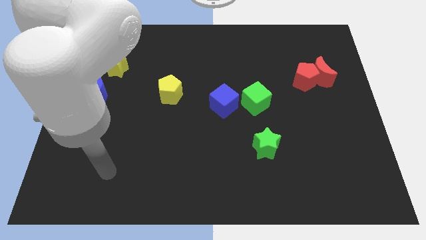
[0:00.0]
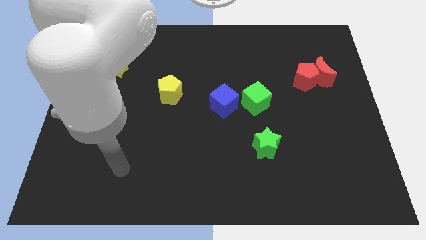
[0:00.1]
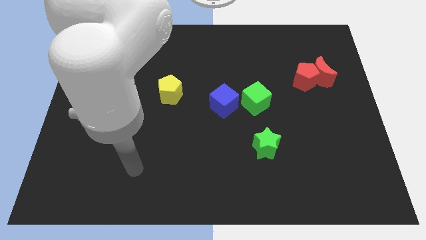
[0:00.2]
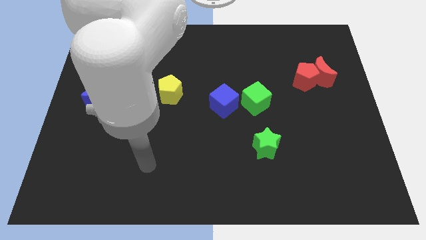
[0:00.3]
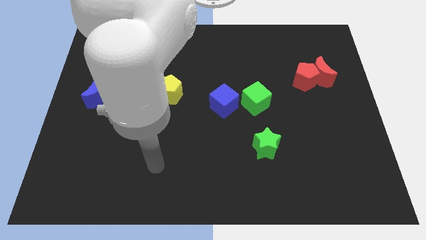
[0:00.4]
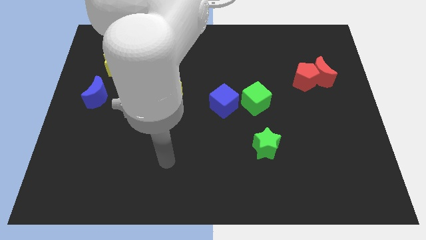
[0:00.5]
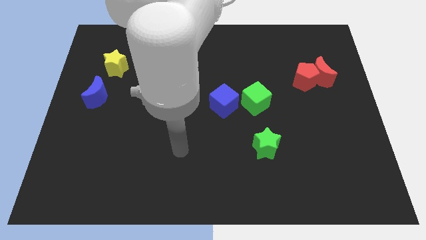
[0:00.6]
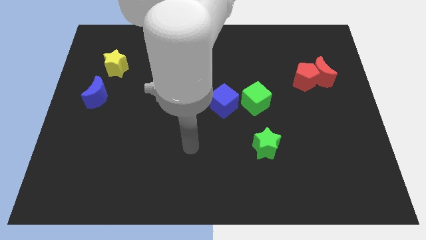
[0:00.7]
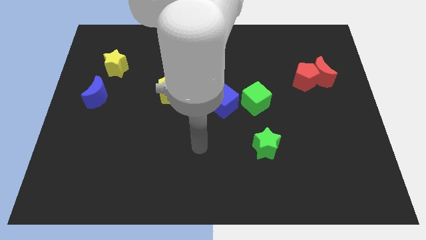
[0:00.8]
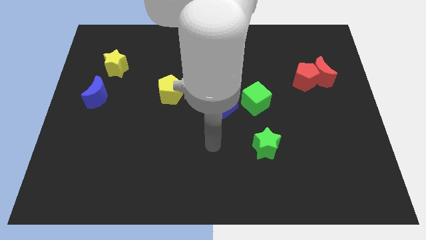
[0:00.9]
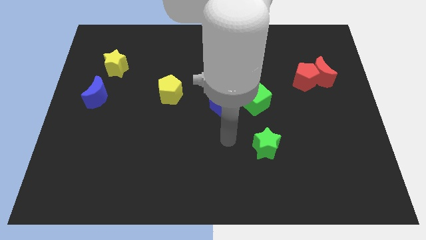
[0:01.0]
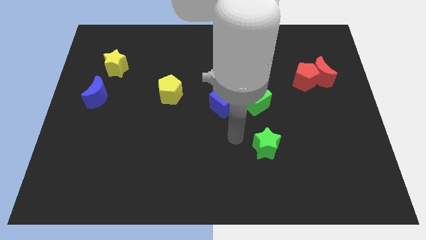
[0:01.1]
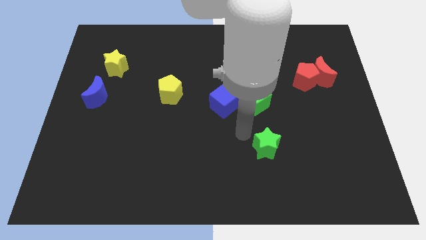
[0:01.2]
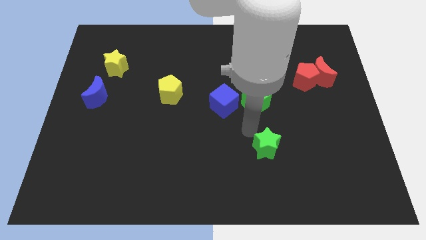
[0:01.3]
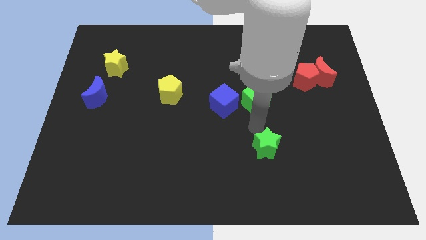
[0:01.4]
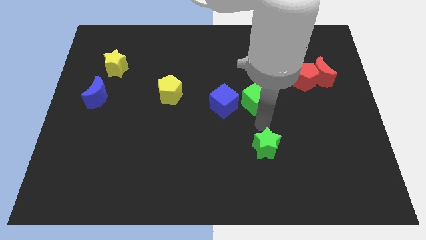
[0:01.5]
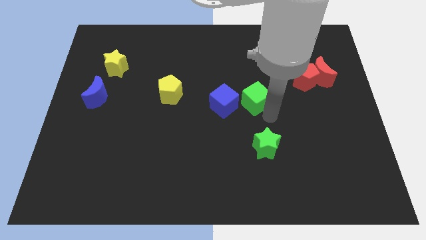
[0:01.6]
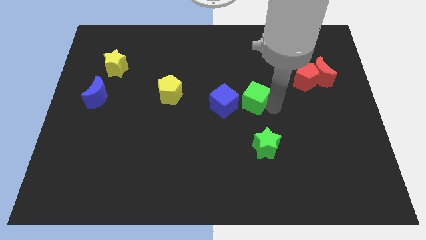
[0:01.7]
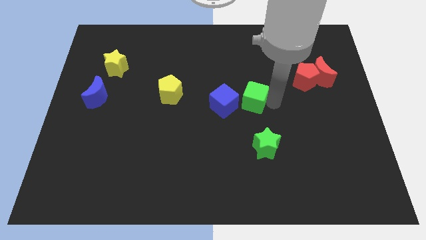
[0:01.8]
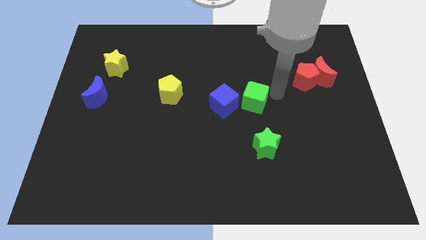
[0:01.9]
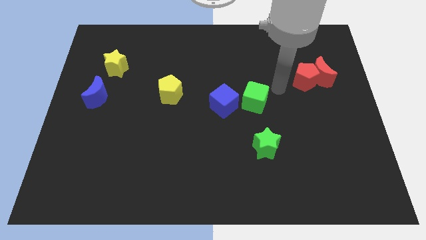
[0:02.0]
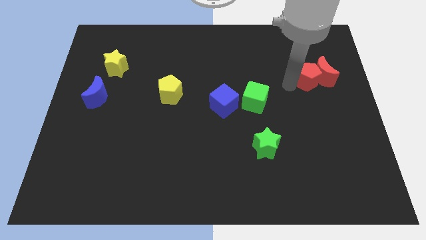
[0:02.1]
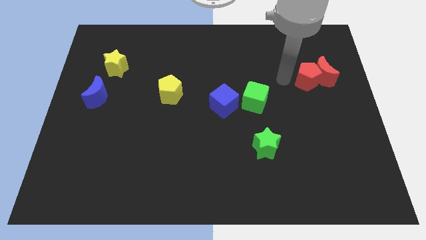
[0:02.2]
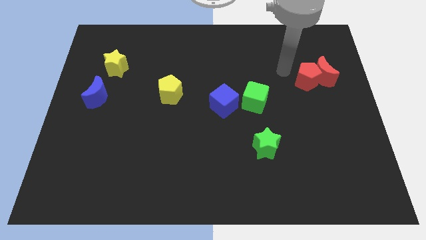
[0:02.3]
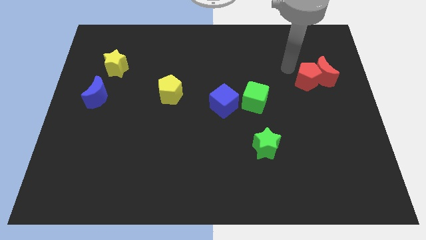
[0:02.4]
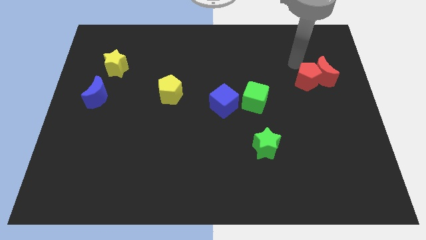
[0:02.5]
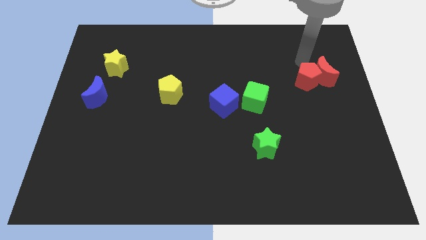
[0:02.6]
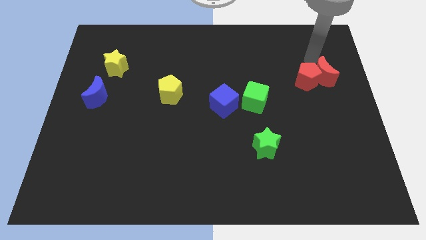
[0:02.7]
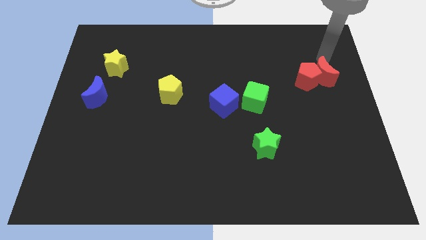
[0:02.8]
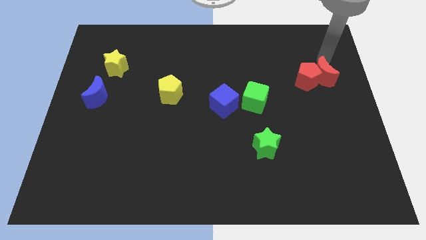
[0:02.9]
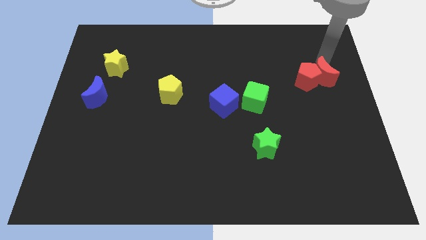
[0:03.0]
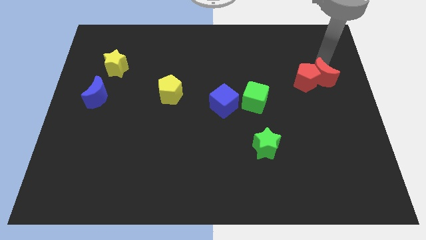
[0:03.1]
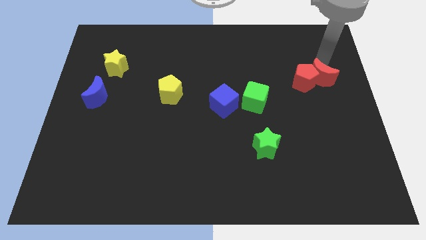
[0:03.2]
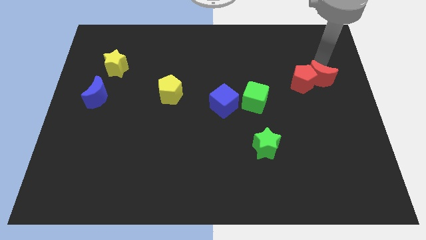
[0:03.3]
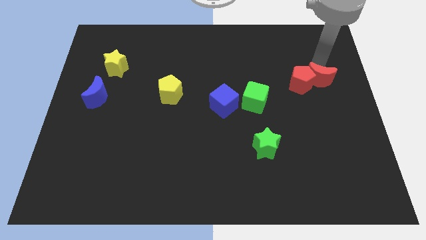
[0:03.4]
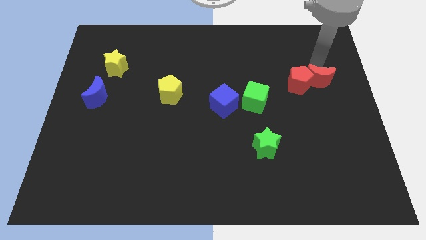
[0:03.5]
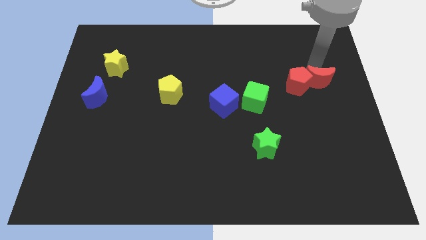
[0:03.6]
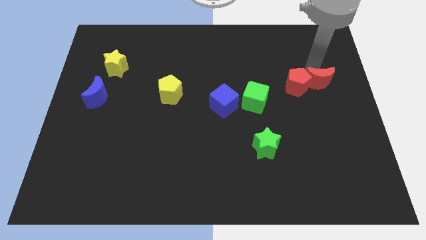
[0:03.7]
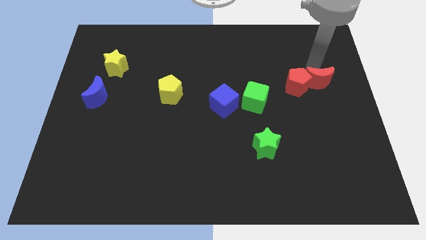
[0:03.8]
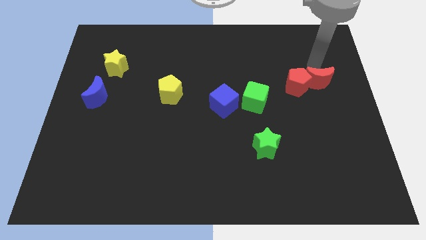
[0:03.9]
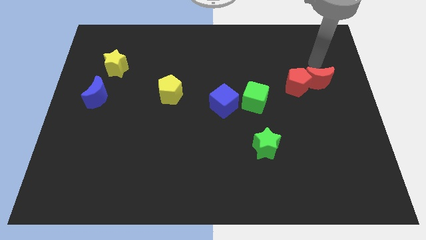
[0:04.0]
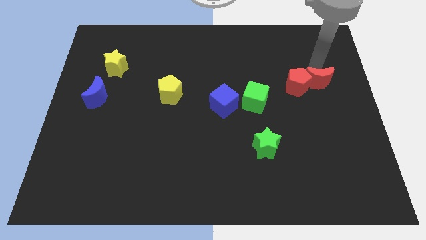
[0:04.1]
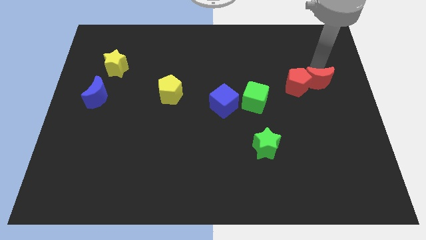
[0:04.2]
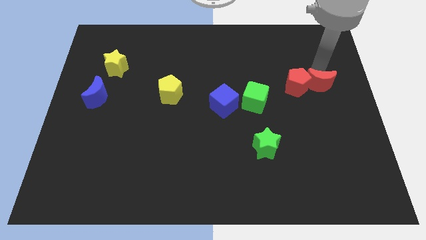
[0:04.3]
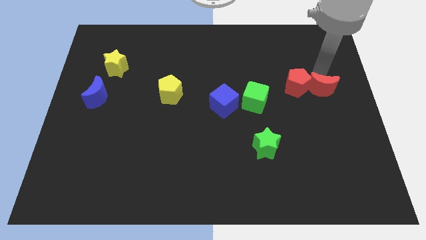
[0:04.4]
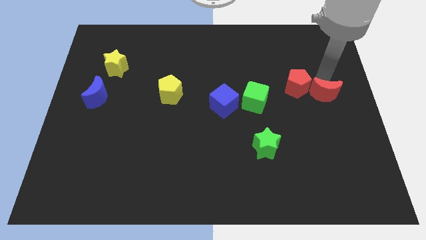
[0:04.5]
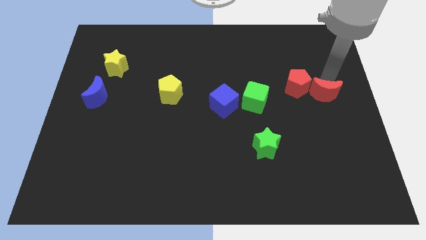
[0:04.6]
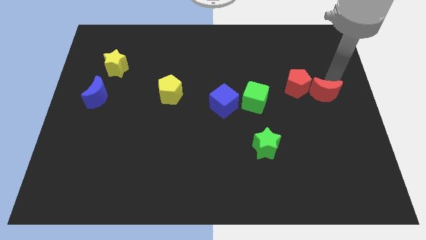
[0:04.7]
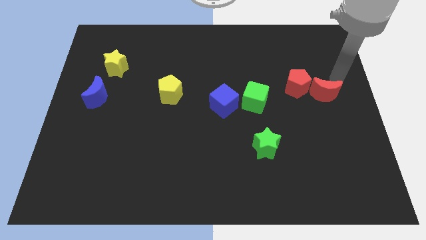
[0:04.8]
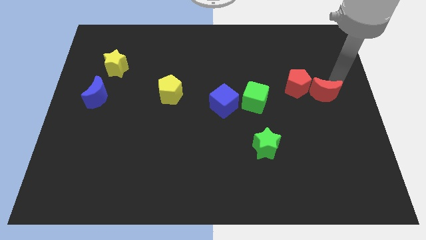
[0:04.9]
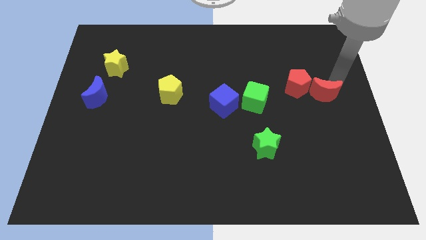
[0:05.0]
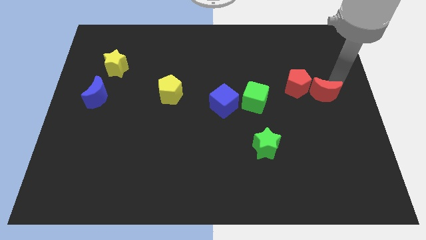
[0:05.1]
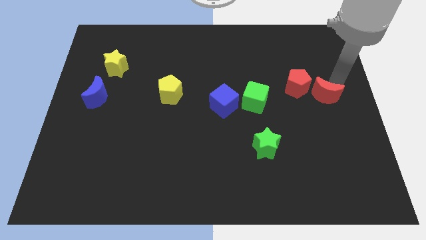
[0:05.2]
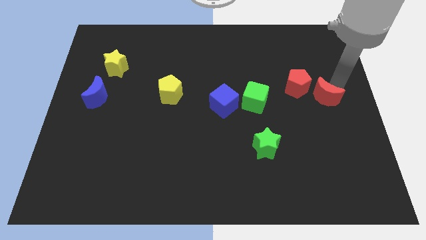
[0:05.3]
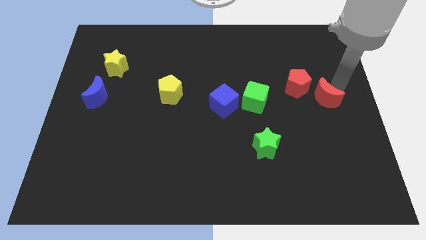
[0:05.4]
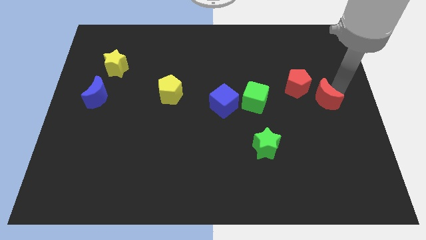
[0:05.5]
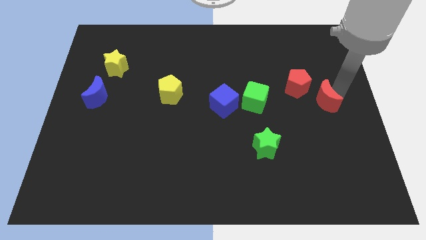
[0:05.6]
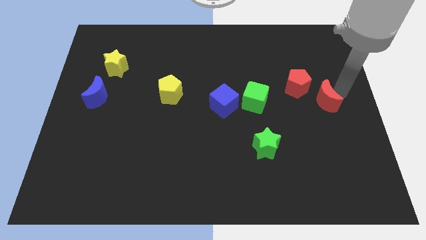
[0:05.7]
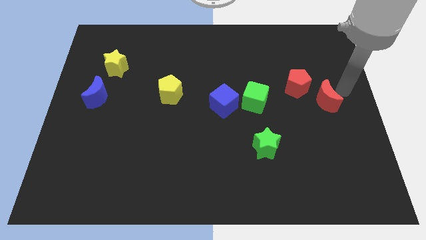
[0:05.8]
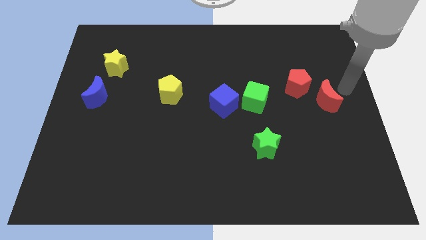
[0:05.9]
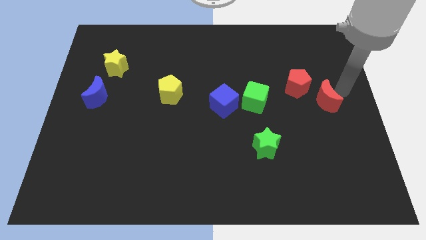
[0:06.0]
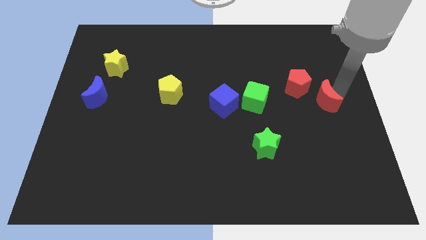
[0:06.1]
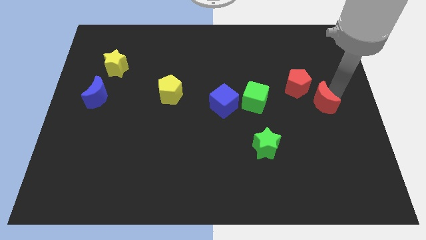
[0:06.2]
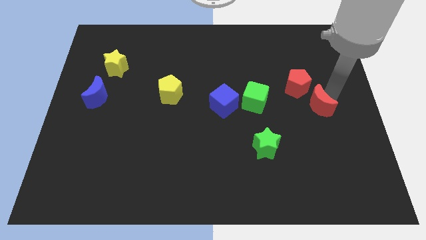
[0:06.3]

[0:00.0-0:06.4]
push the red moon slightly diagonally downwards and left

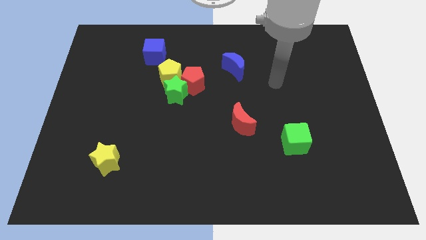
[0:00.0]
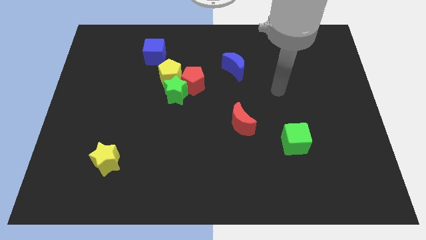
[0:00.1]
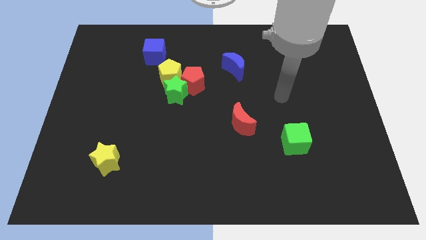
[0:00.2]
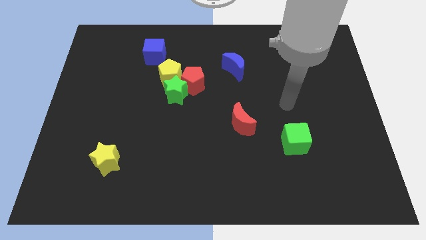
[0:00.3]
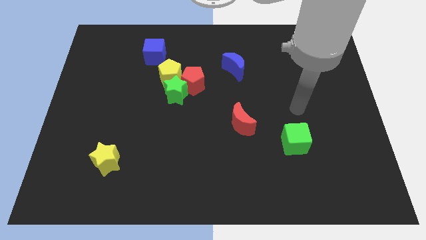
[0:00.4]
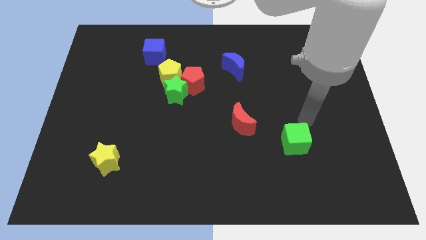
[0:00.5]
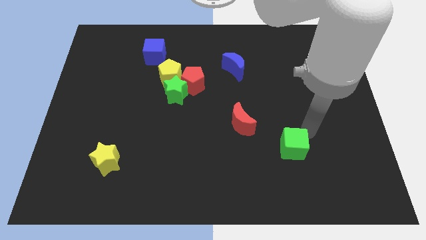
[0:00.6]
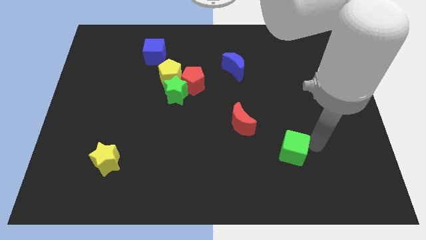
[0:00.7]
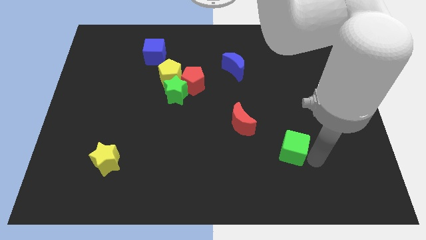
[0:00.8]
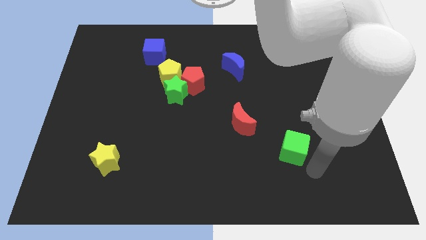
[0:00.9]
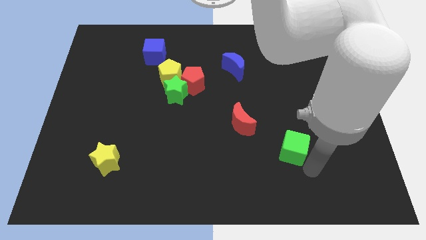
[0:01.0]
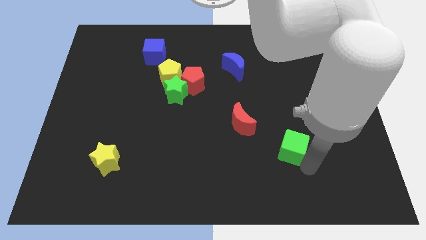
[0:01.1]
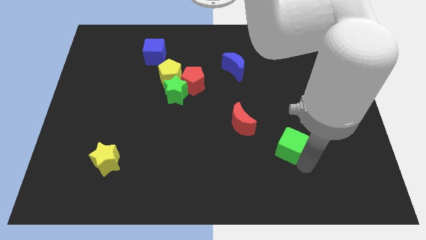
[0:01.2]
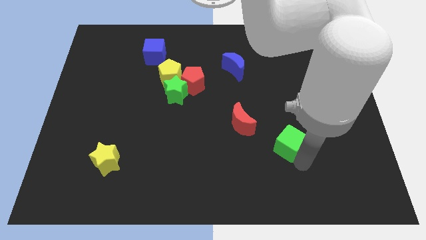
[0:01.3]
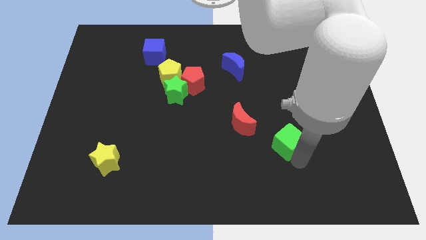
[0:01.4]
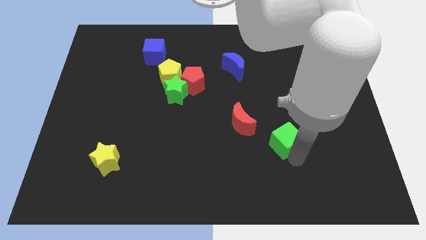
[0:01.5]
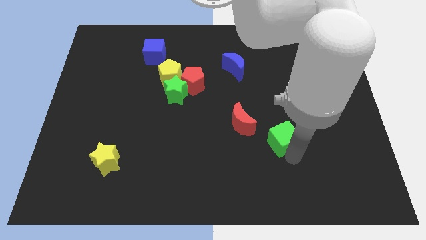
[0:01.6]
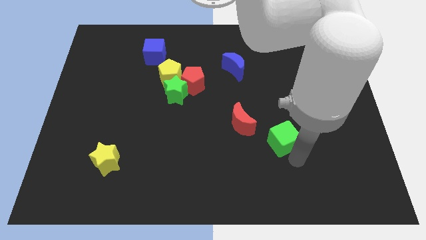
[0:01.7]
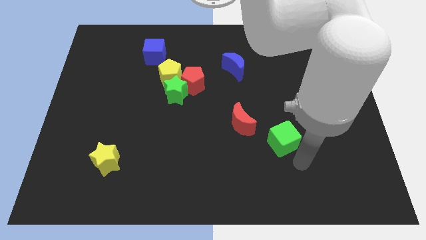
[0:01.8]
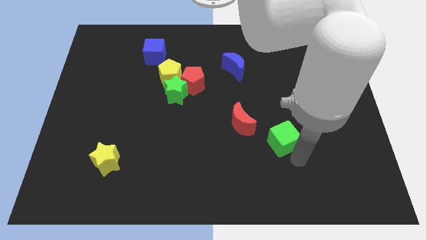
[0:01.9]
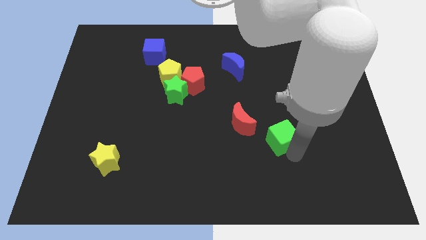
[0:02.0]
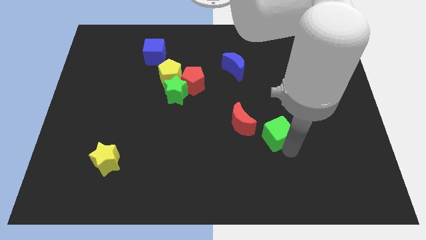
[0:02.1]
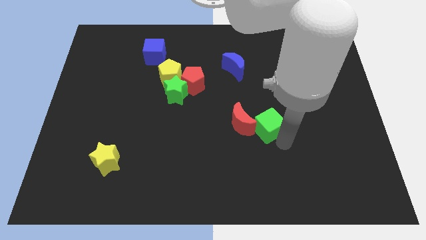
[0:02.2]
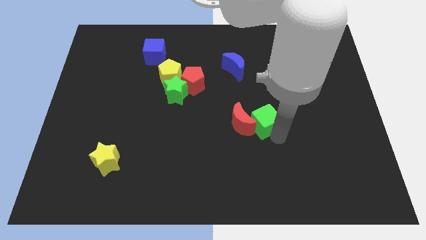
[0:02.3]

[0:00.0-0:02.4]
push the green cube somewhat diagonally up and to the left

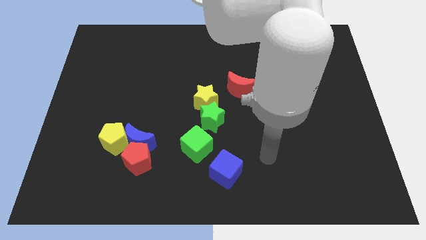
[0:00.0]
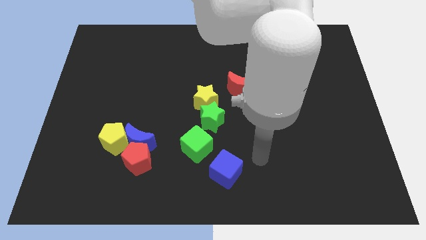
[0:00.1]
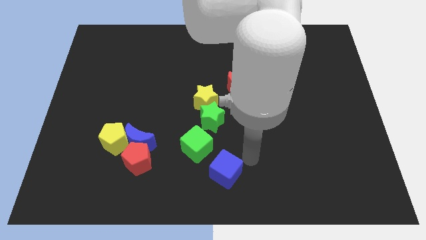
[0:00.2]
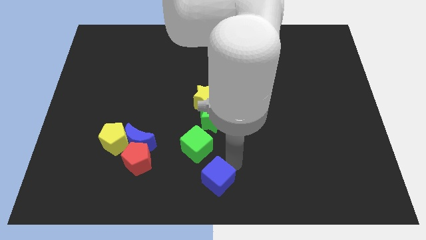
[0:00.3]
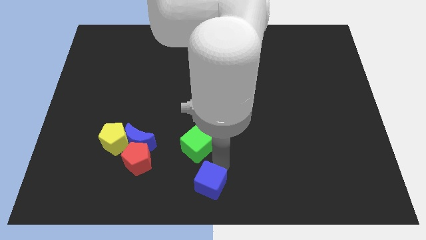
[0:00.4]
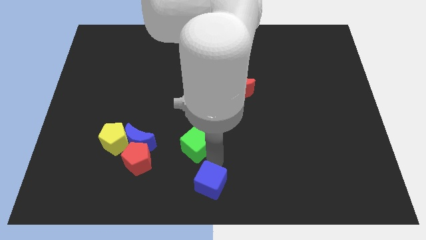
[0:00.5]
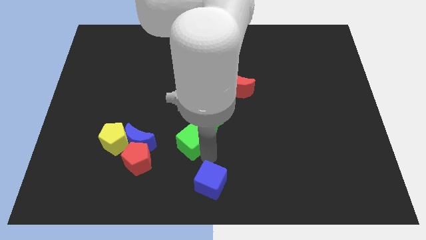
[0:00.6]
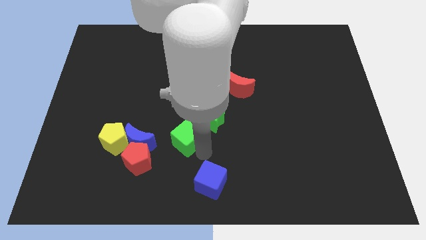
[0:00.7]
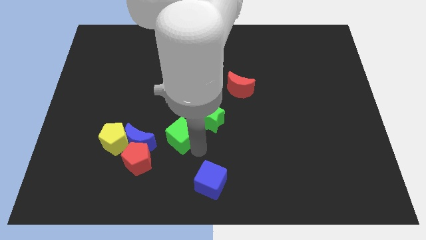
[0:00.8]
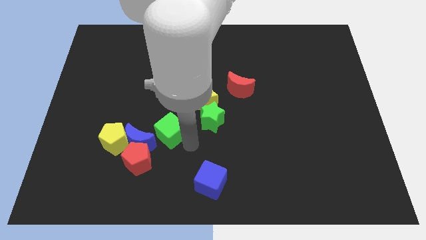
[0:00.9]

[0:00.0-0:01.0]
slide the green cube upwards and to the left somewhat
